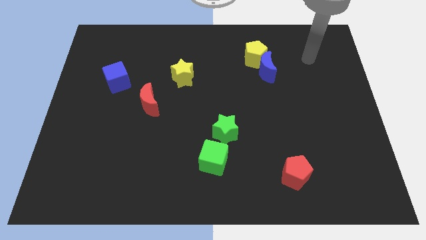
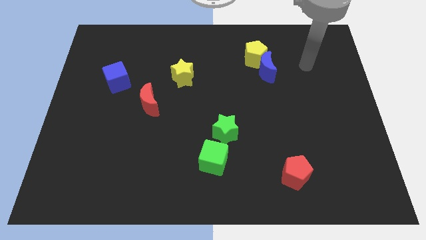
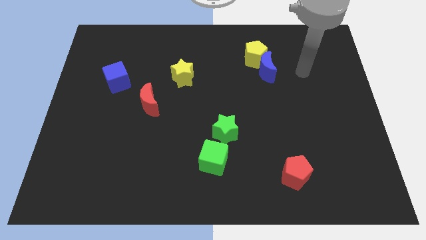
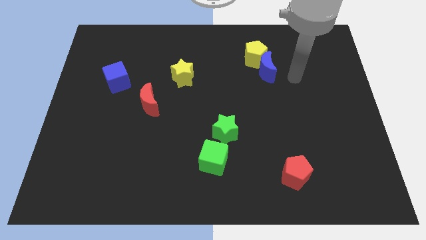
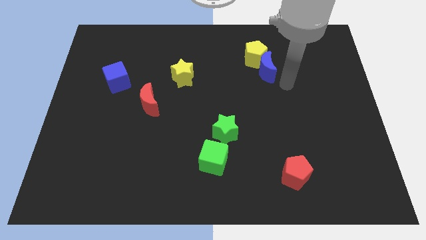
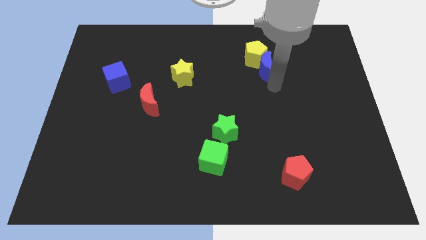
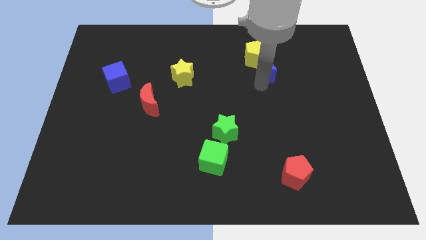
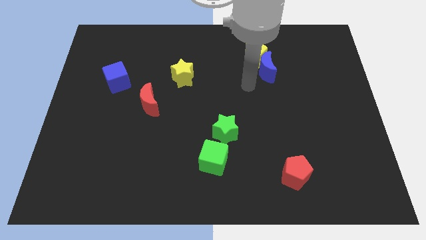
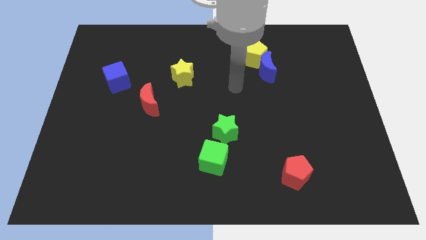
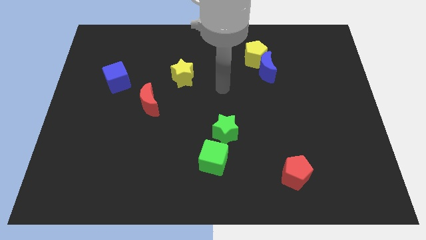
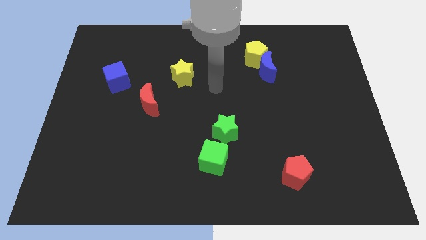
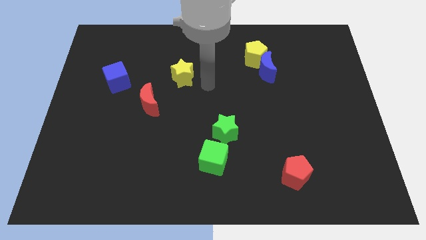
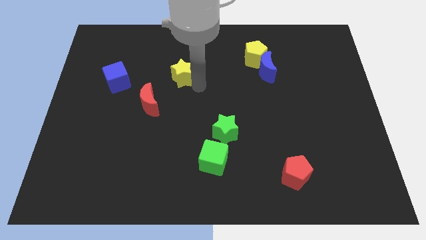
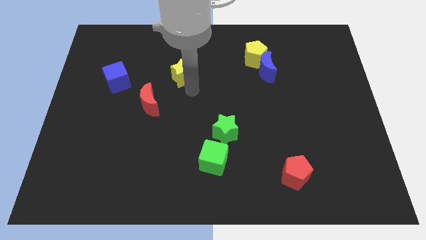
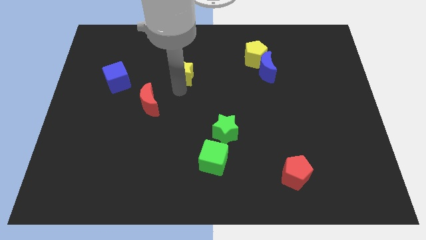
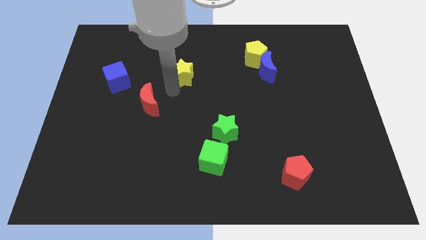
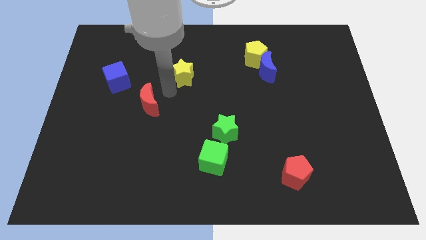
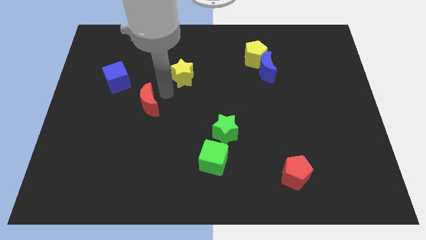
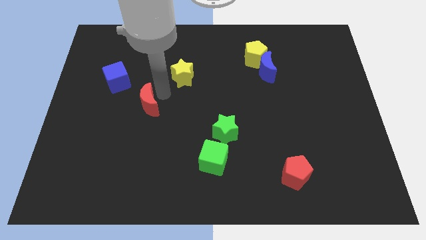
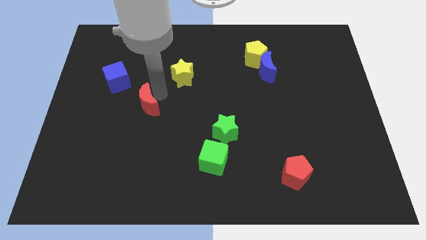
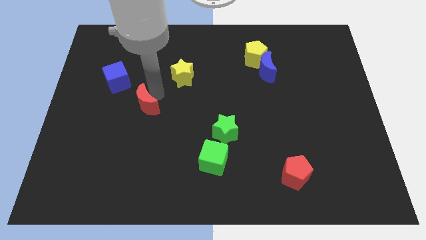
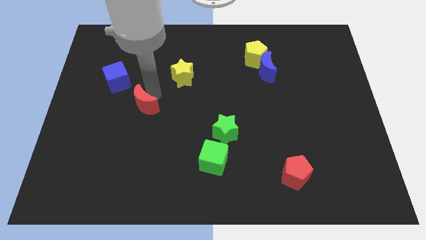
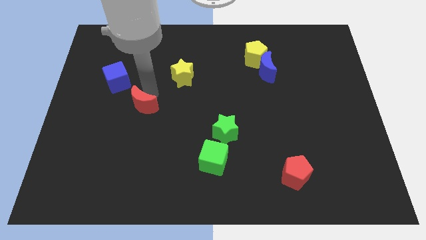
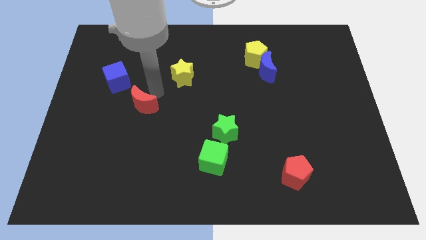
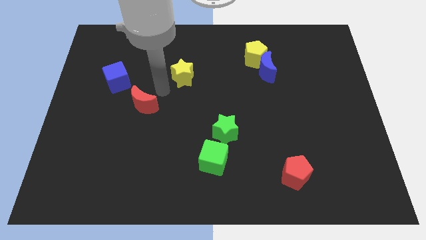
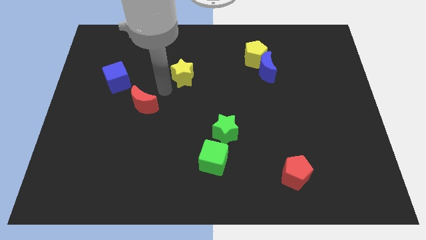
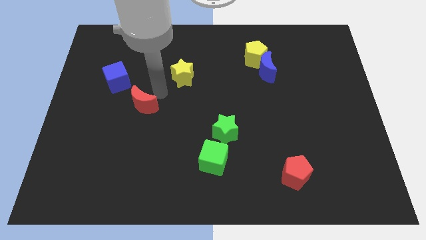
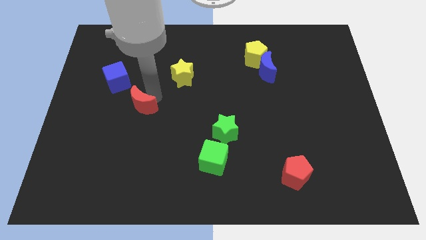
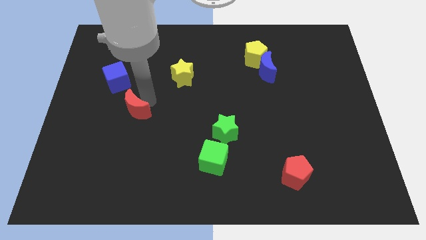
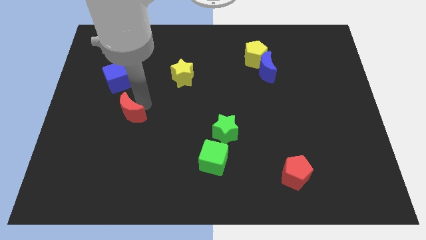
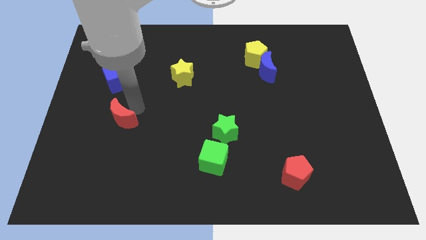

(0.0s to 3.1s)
slide the red moon down and left a little

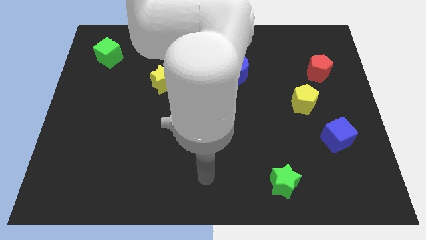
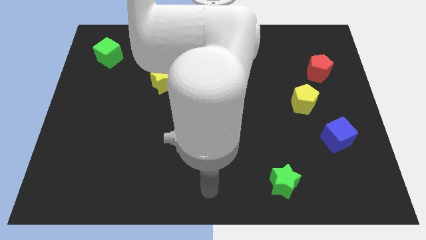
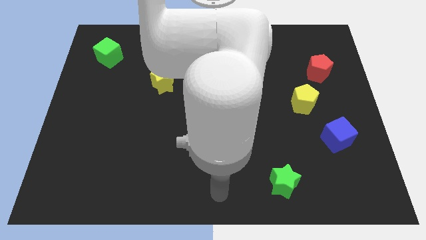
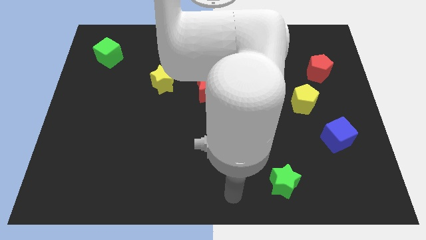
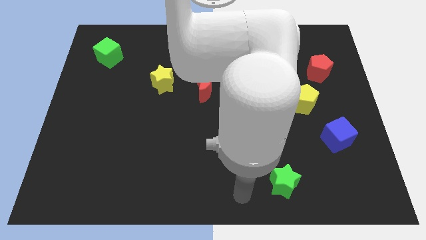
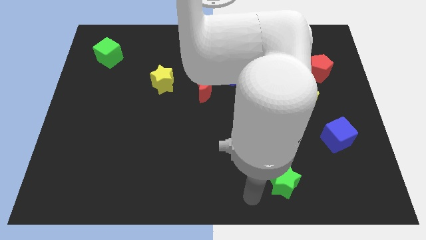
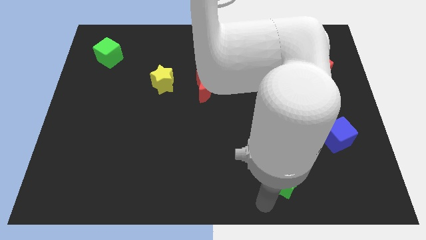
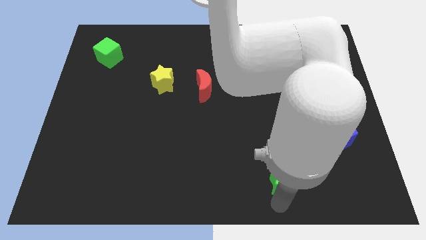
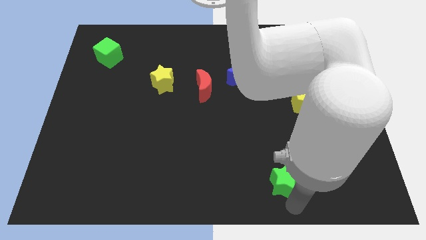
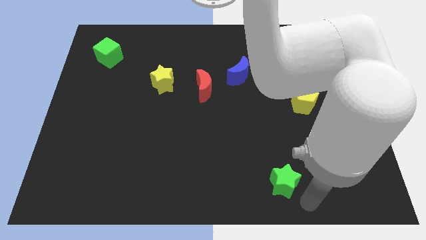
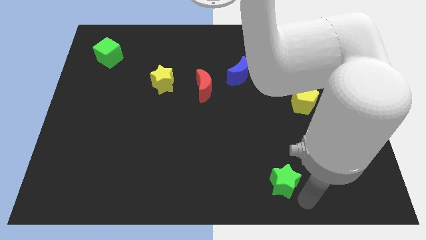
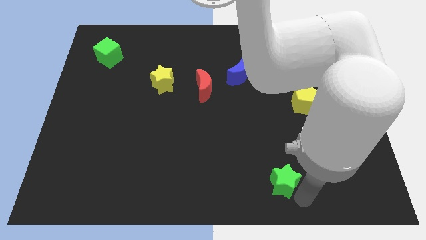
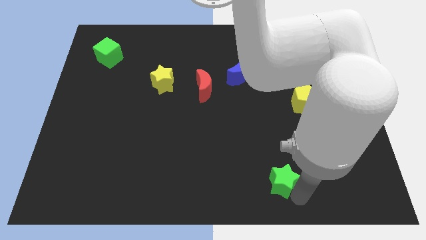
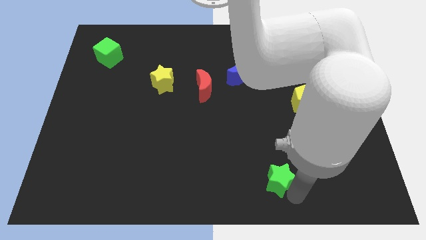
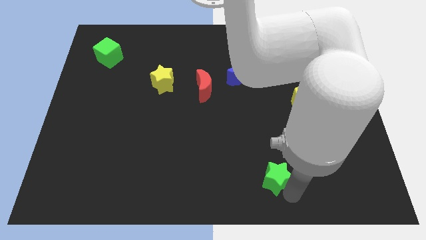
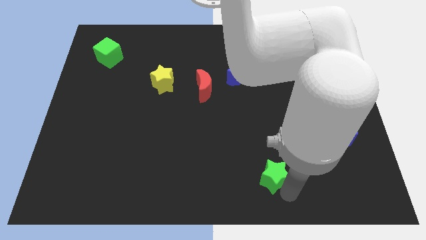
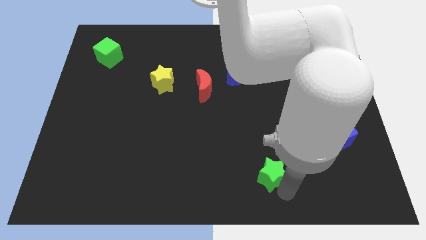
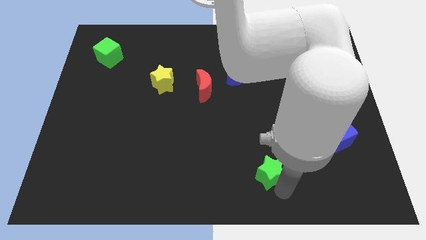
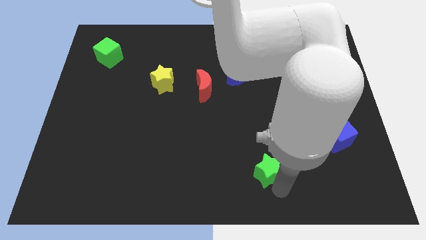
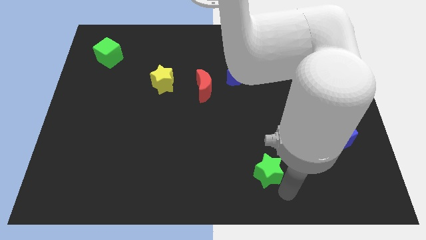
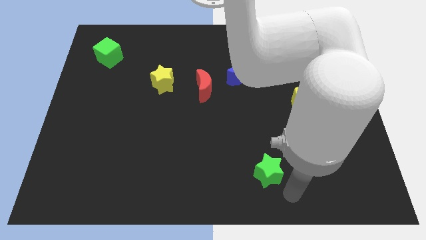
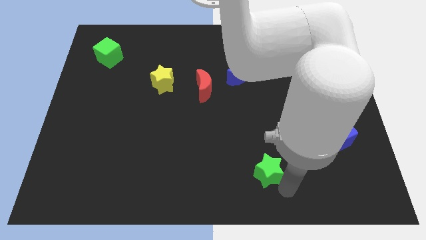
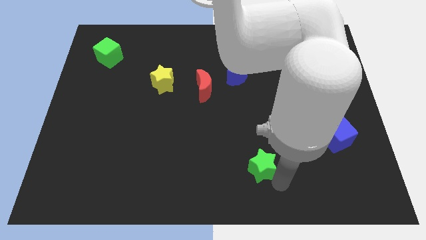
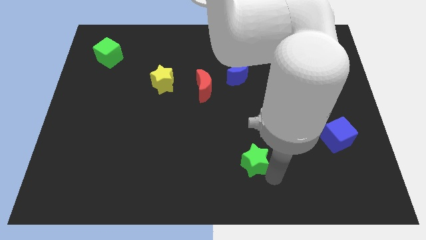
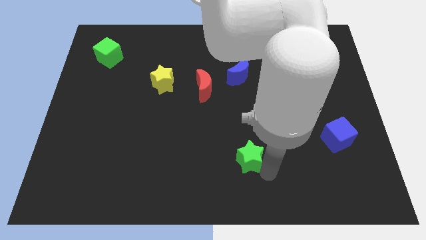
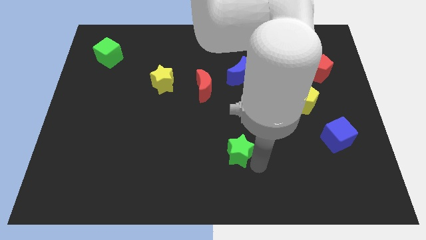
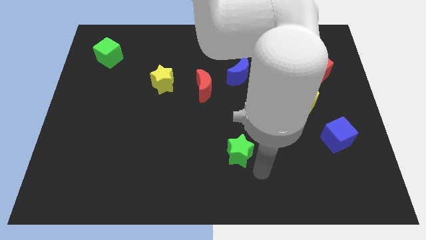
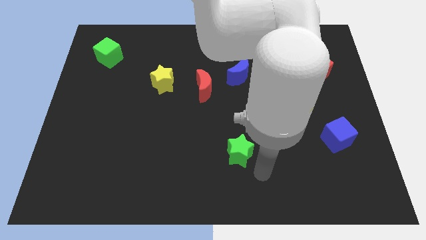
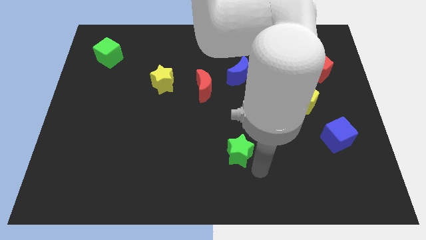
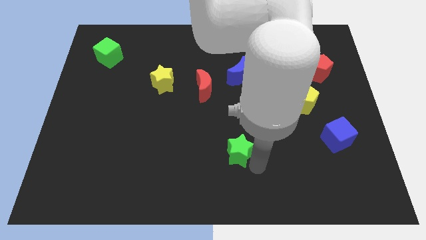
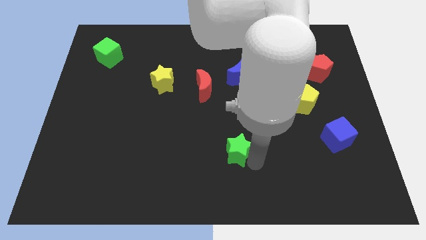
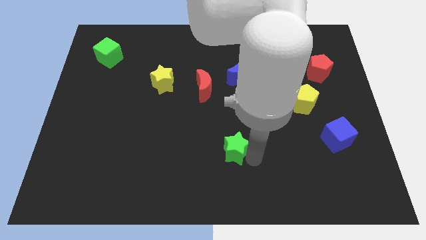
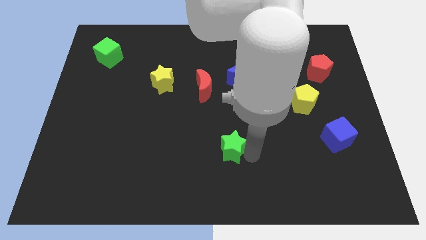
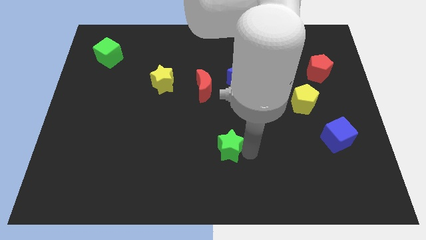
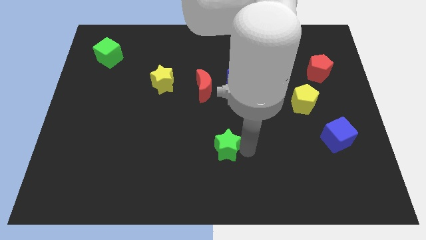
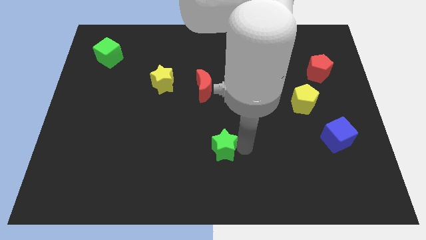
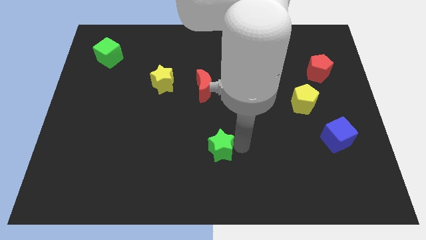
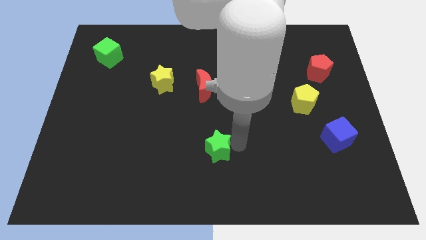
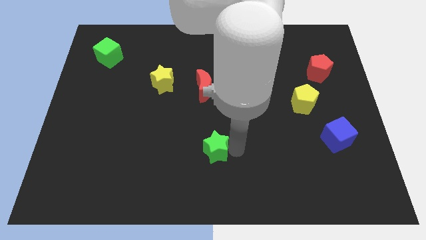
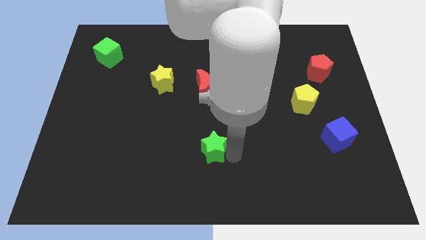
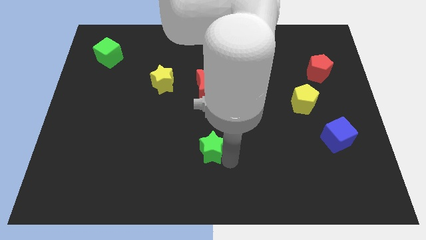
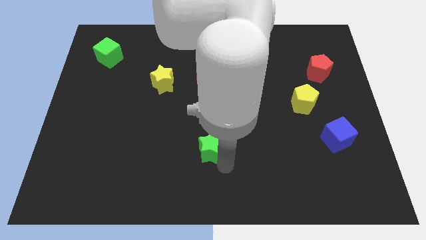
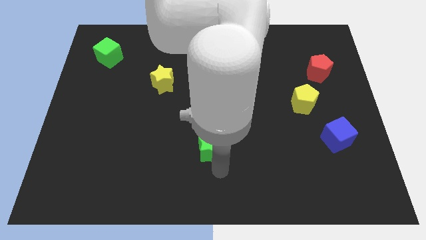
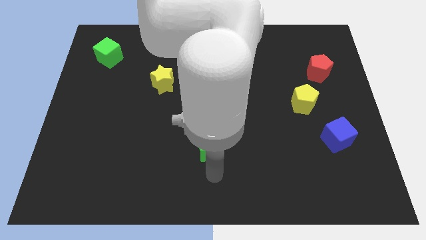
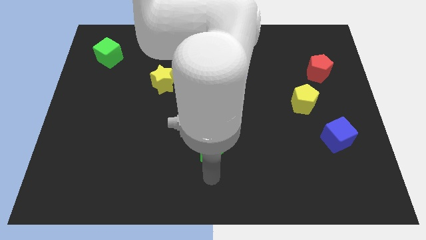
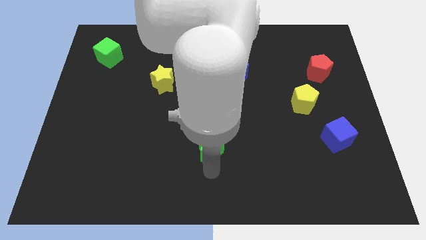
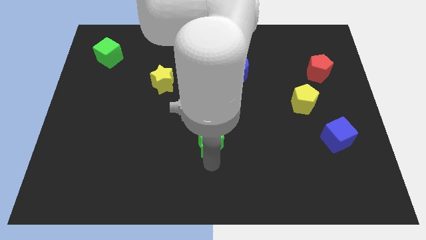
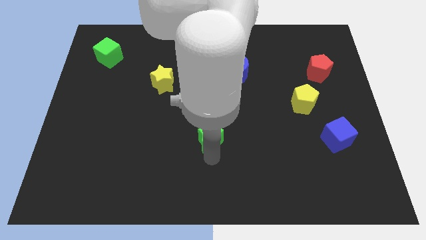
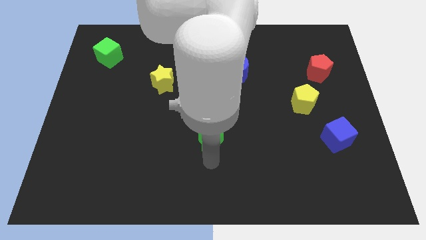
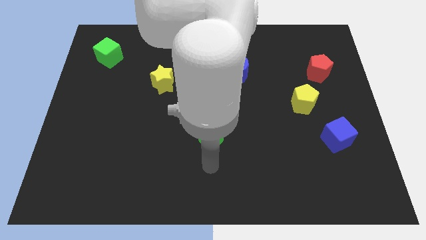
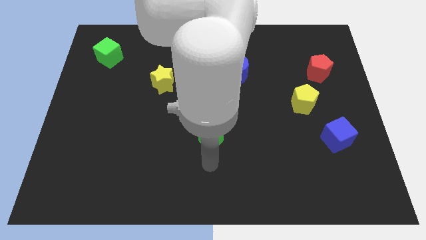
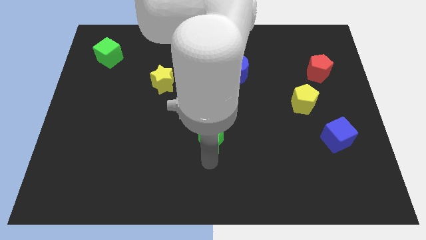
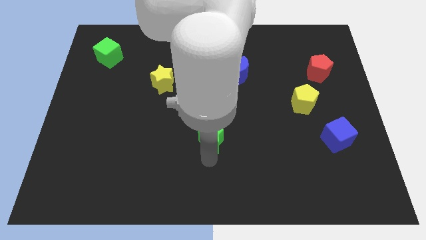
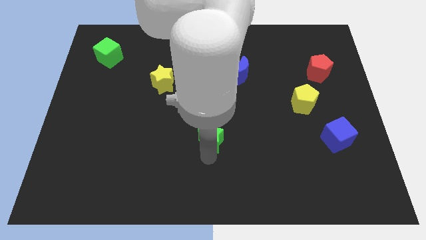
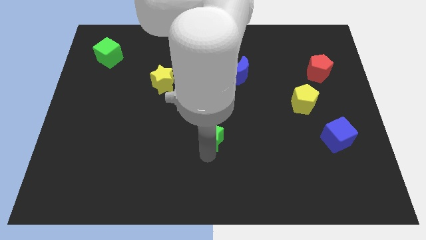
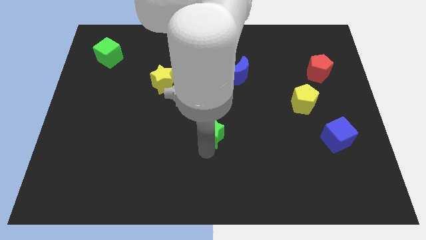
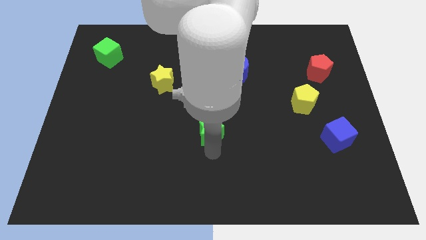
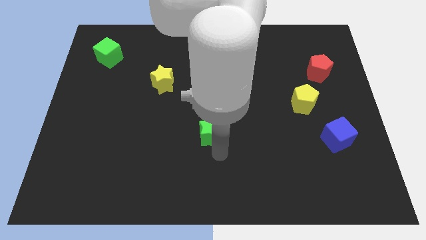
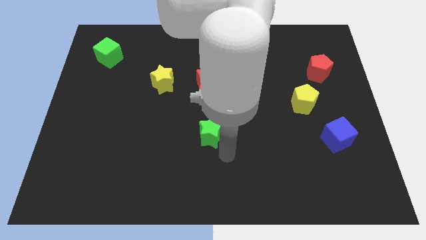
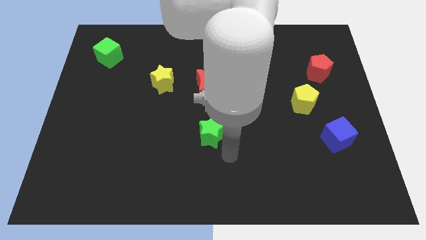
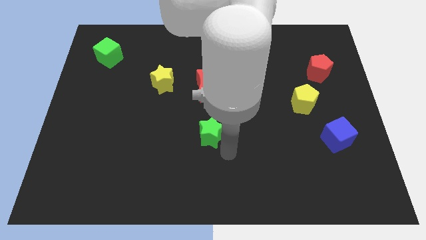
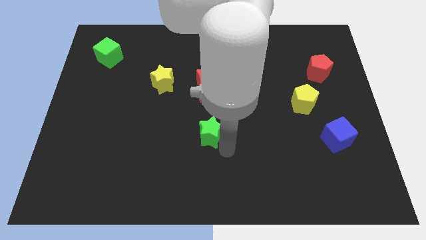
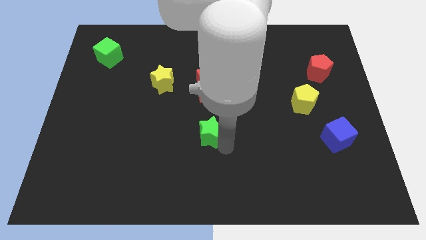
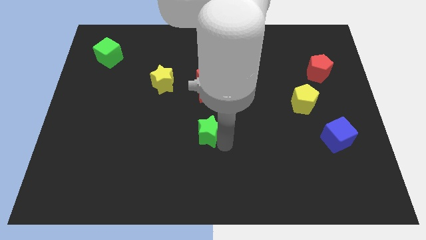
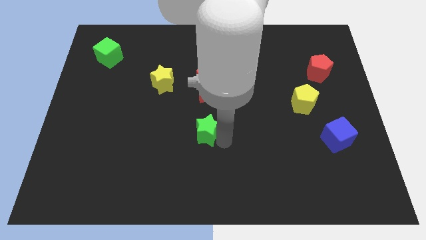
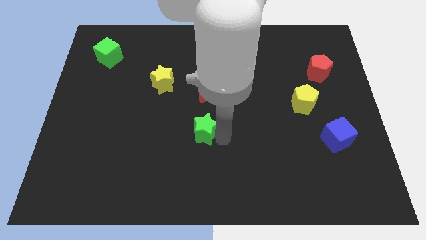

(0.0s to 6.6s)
move the green star upwards and then to the left
